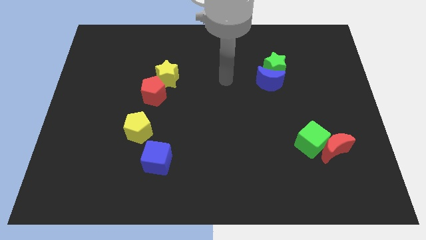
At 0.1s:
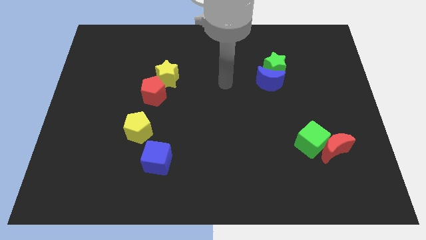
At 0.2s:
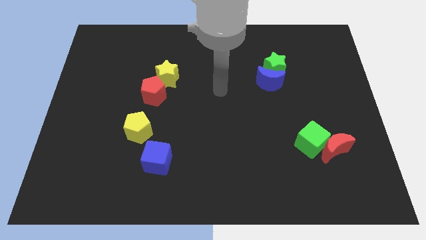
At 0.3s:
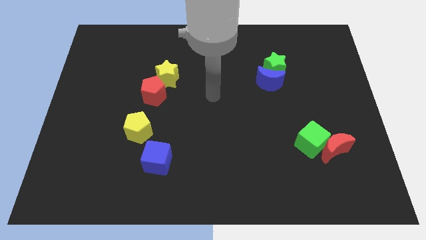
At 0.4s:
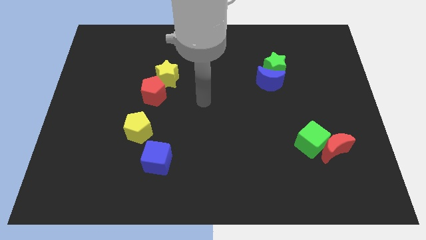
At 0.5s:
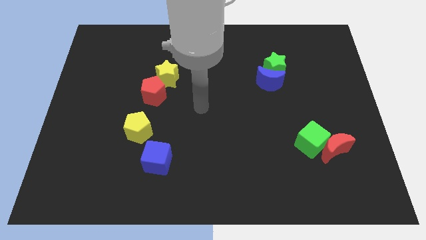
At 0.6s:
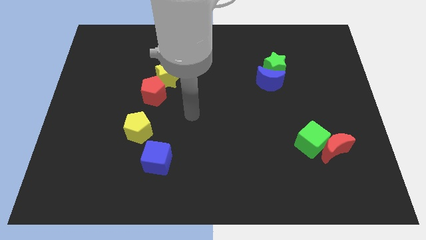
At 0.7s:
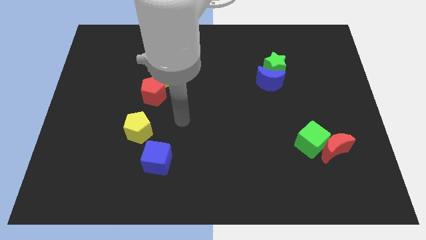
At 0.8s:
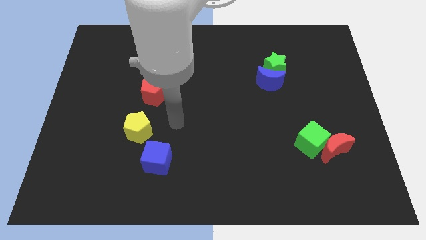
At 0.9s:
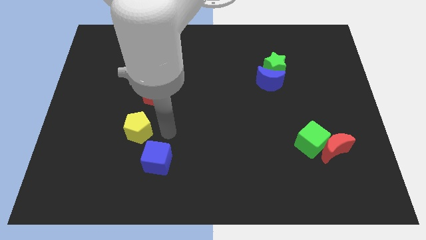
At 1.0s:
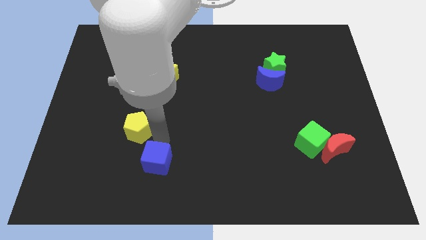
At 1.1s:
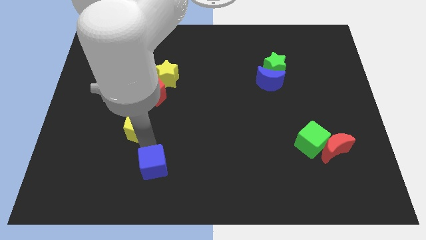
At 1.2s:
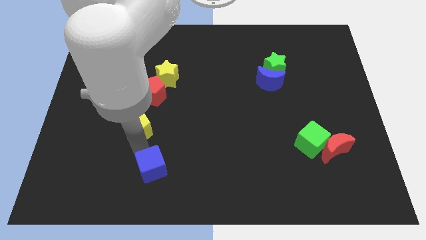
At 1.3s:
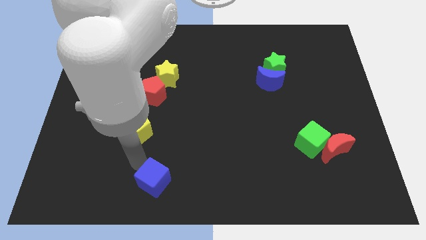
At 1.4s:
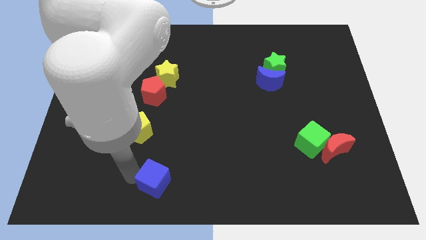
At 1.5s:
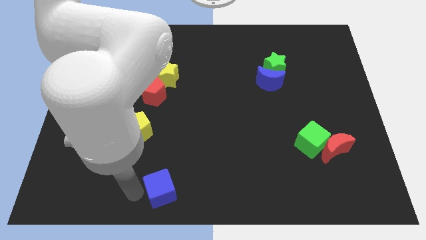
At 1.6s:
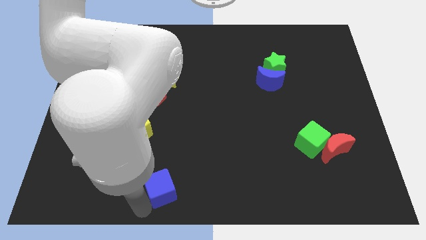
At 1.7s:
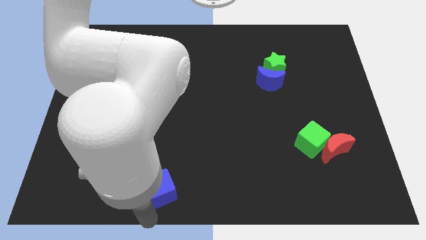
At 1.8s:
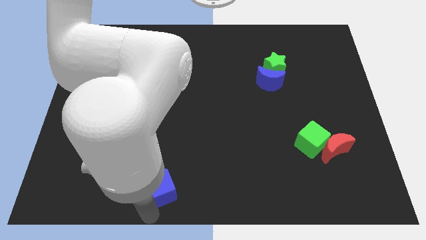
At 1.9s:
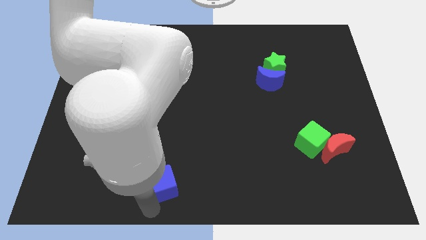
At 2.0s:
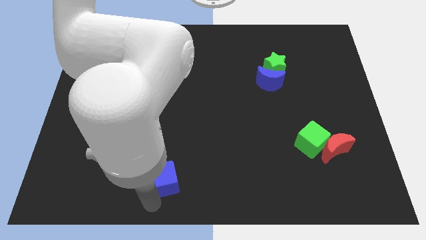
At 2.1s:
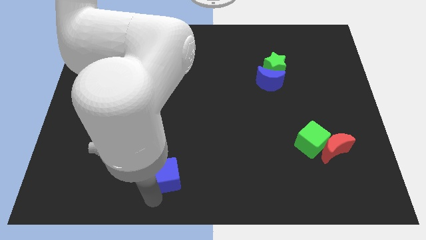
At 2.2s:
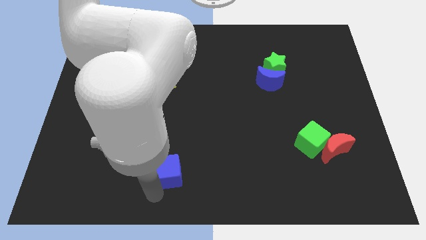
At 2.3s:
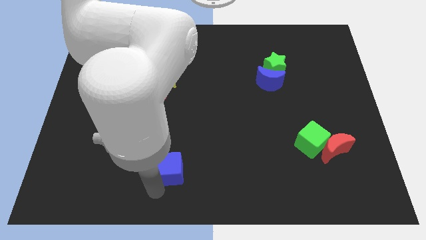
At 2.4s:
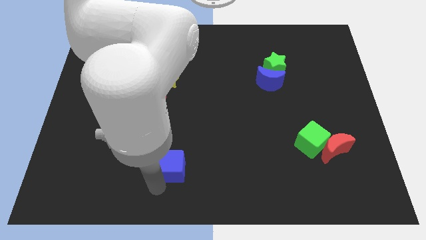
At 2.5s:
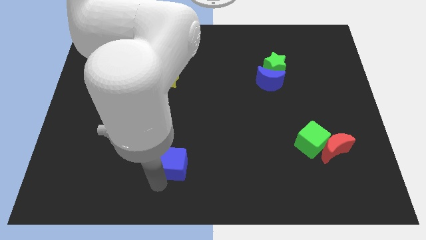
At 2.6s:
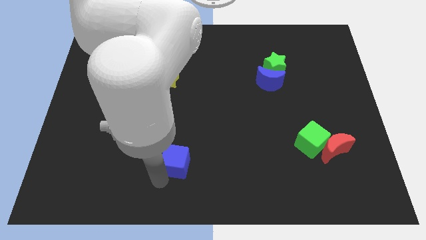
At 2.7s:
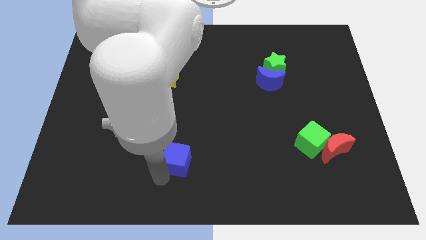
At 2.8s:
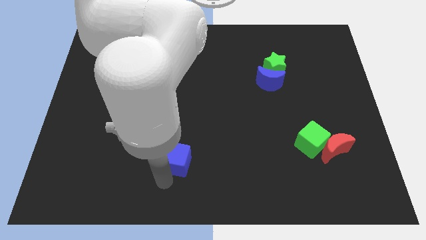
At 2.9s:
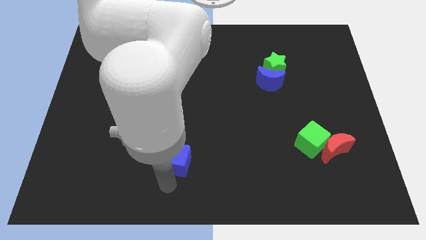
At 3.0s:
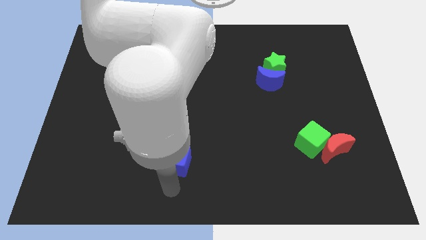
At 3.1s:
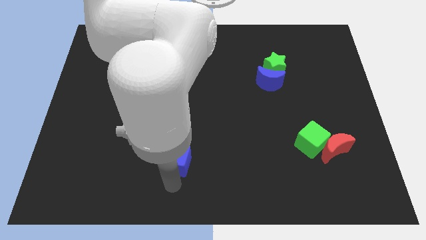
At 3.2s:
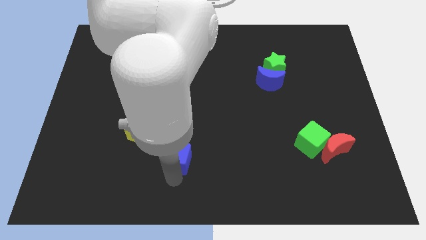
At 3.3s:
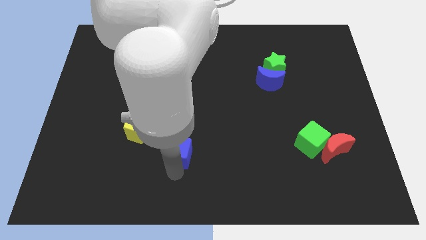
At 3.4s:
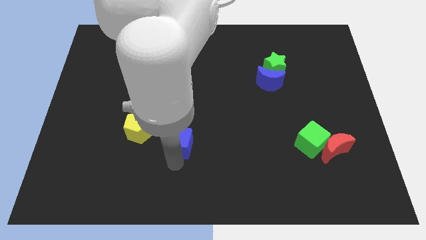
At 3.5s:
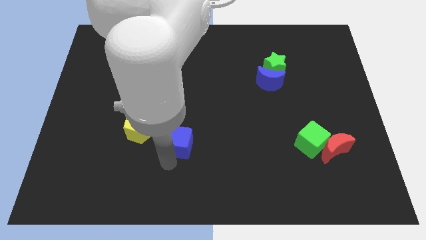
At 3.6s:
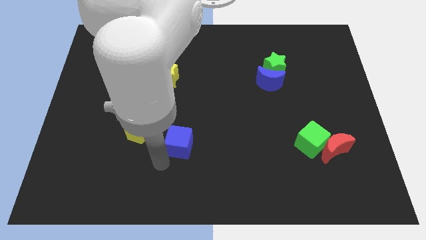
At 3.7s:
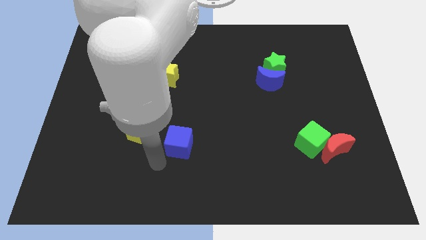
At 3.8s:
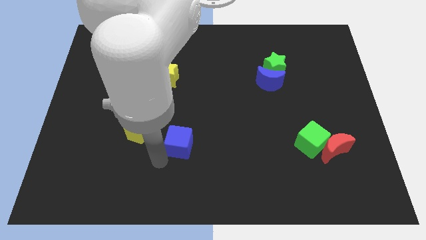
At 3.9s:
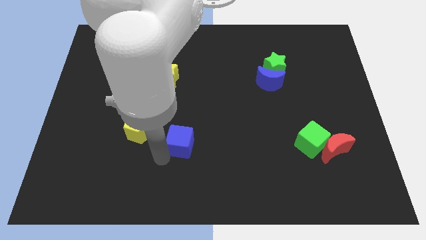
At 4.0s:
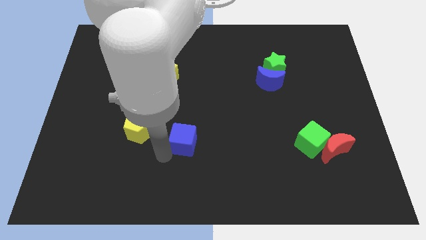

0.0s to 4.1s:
push the blue cube somewhat up and then right

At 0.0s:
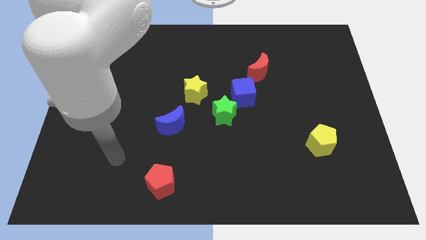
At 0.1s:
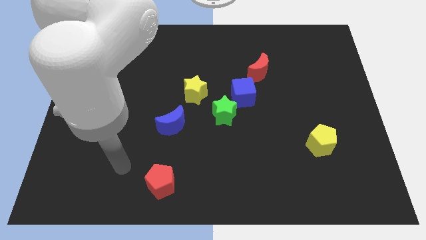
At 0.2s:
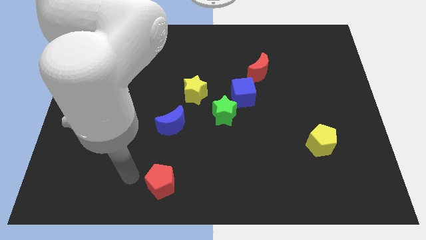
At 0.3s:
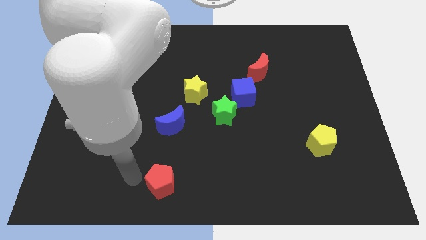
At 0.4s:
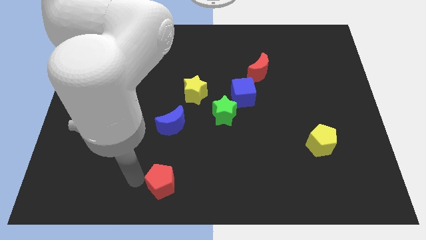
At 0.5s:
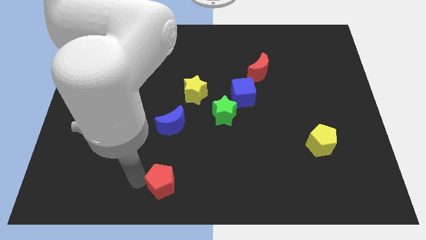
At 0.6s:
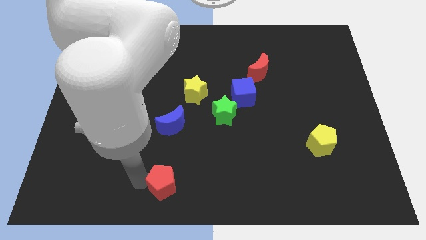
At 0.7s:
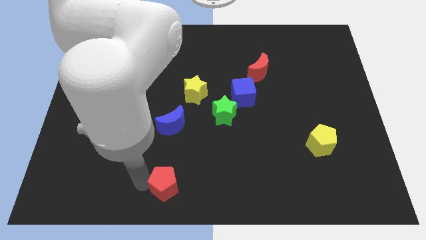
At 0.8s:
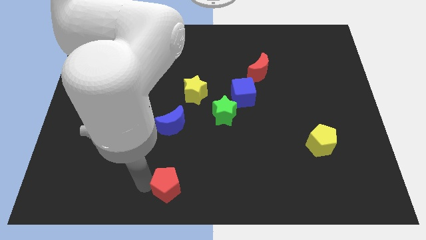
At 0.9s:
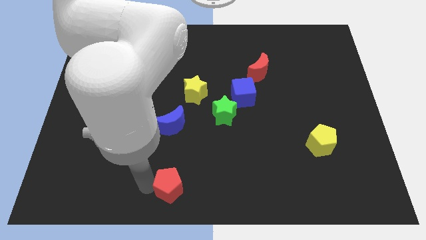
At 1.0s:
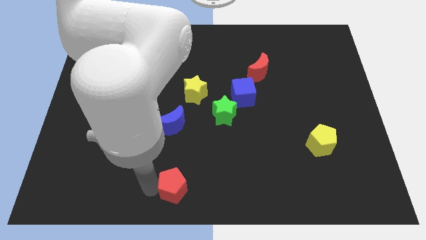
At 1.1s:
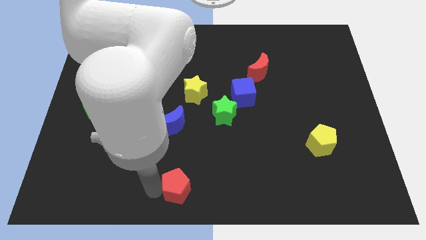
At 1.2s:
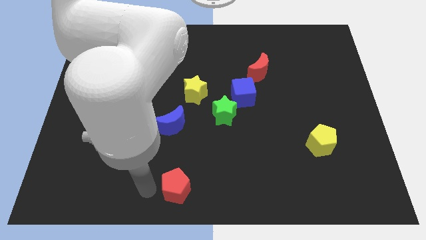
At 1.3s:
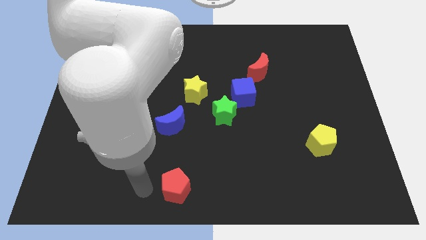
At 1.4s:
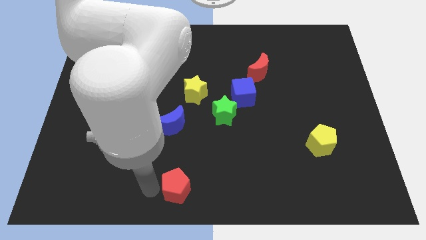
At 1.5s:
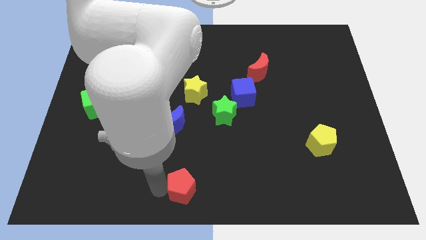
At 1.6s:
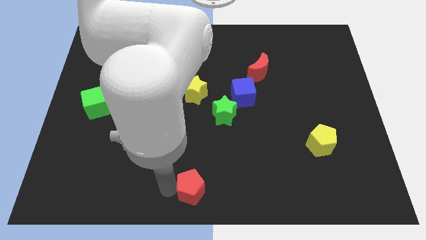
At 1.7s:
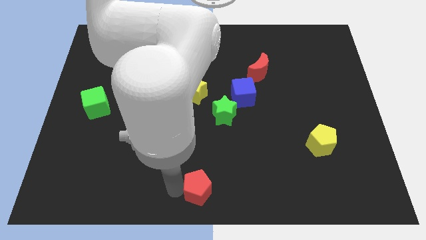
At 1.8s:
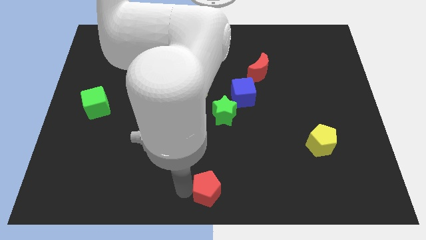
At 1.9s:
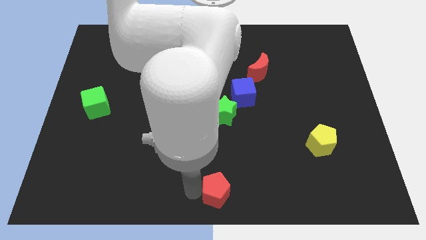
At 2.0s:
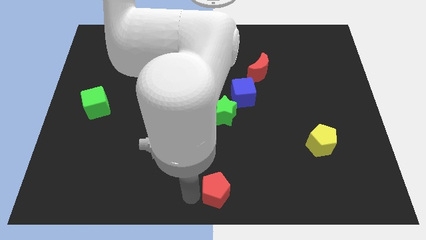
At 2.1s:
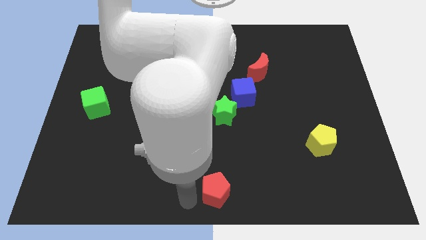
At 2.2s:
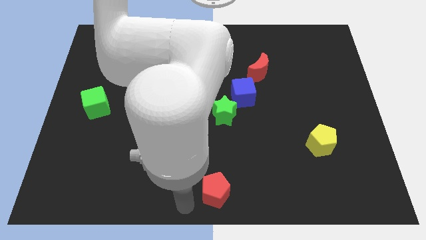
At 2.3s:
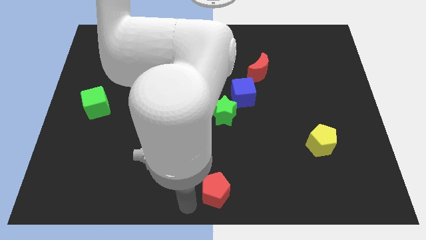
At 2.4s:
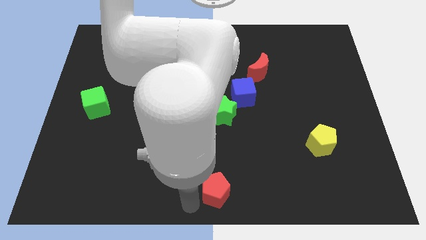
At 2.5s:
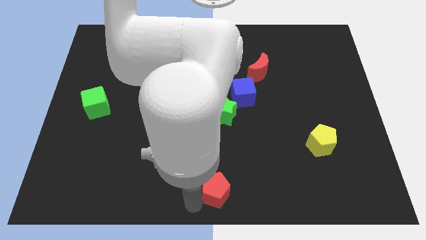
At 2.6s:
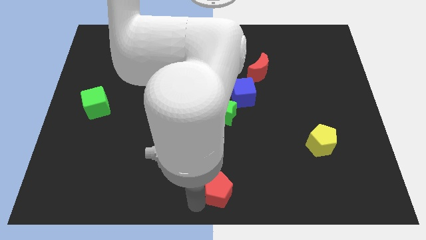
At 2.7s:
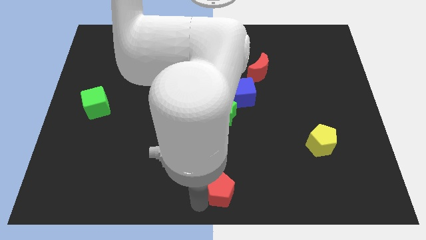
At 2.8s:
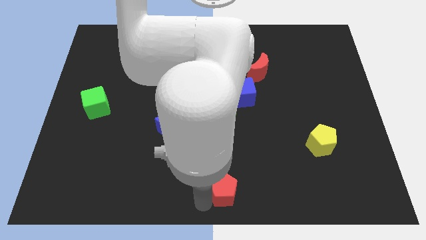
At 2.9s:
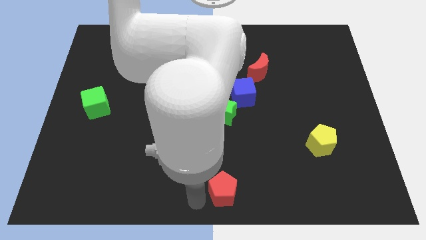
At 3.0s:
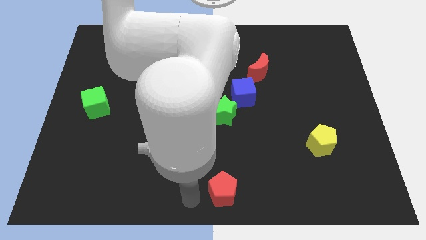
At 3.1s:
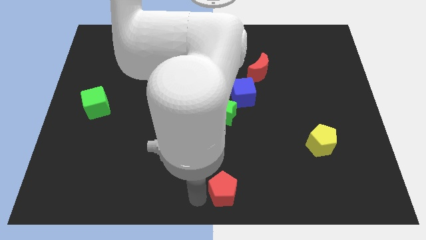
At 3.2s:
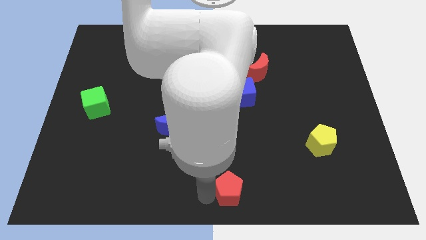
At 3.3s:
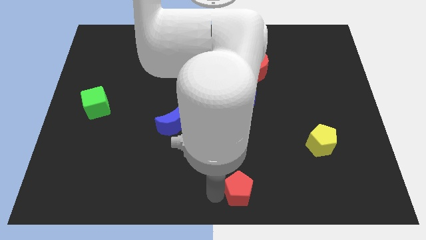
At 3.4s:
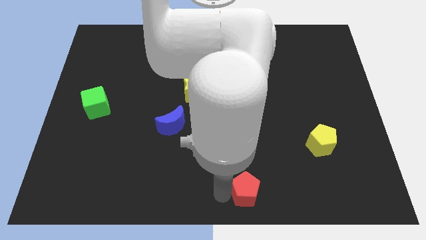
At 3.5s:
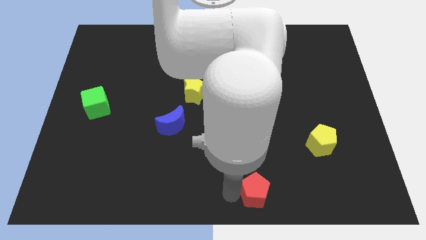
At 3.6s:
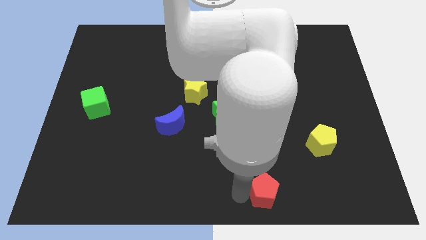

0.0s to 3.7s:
slide the red pentagon to the right

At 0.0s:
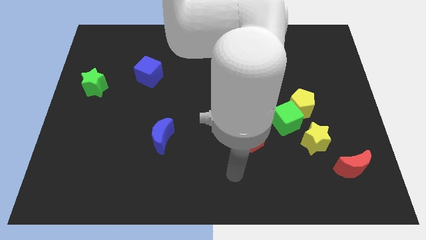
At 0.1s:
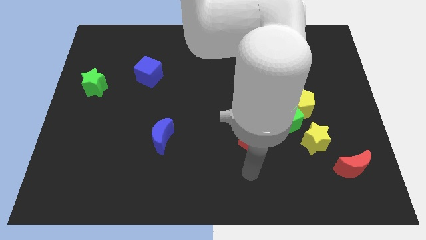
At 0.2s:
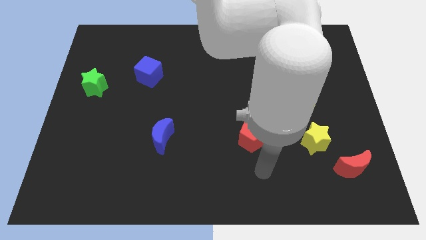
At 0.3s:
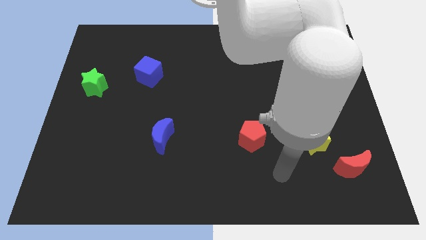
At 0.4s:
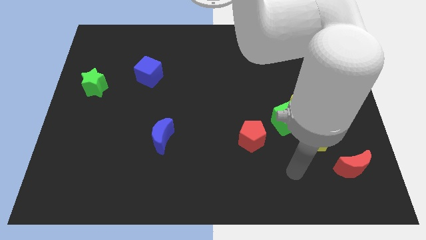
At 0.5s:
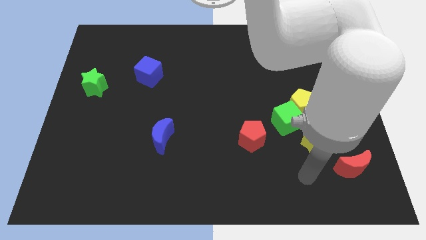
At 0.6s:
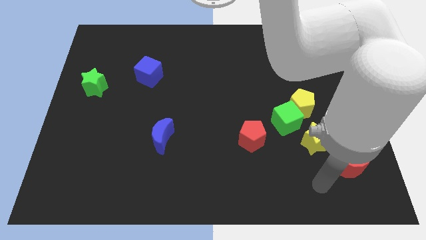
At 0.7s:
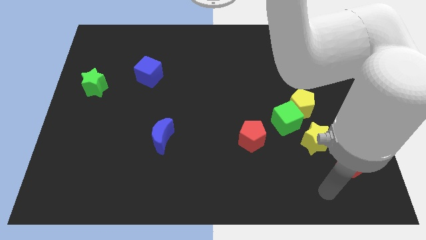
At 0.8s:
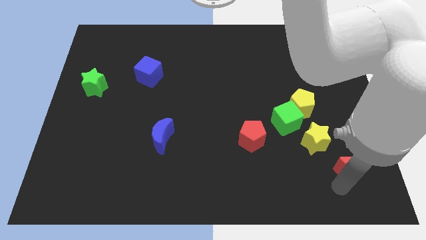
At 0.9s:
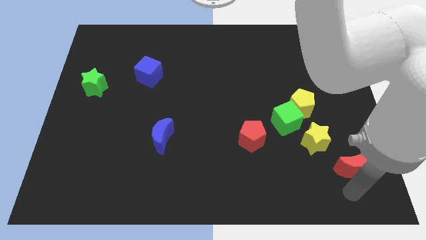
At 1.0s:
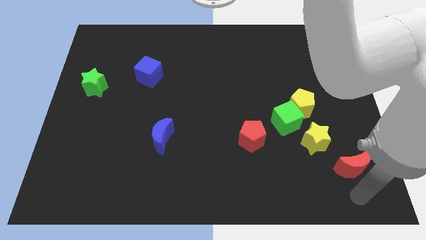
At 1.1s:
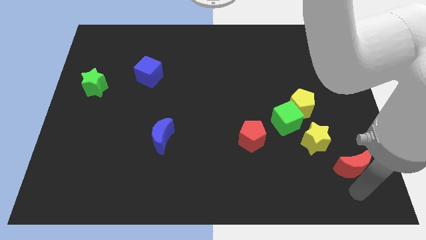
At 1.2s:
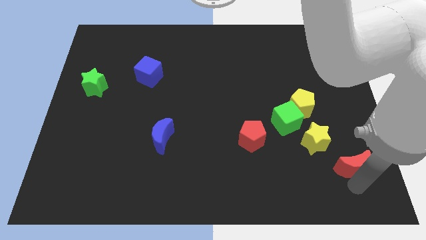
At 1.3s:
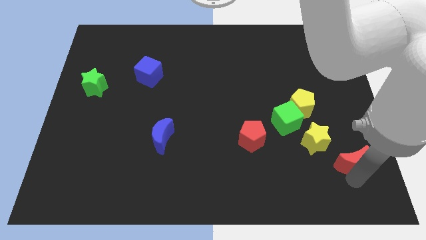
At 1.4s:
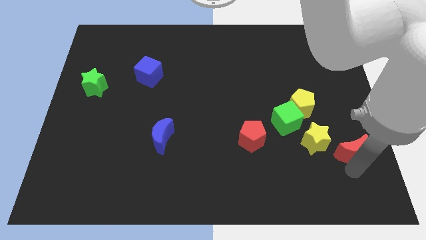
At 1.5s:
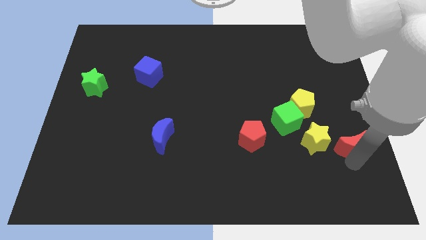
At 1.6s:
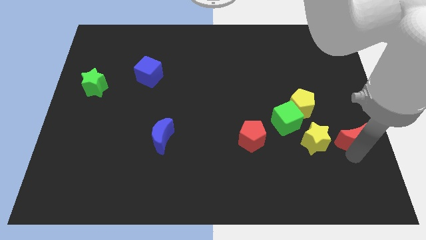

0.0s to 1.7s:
move the red moon a little bit upwards
